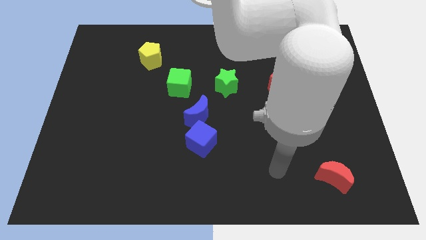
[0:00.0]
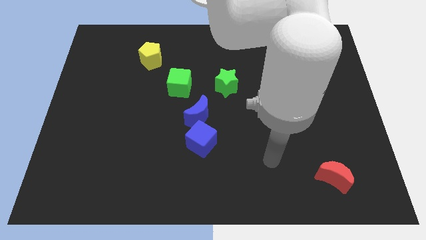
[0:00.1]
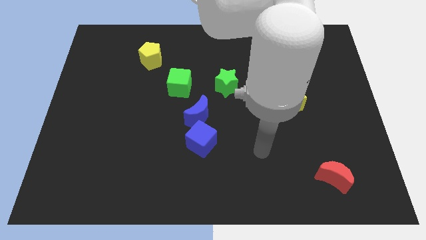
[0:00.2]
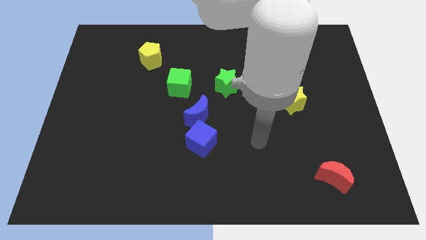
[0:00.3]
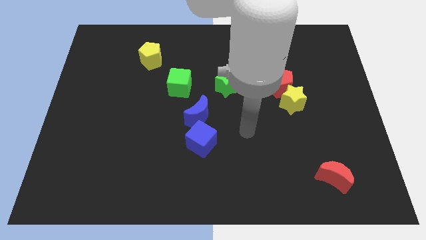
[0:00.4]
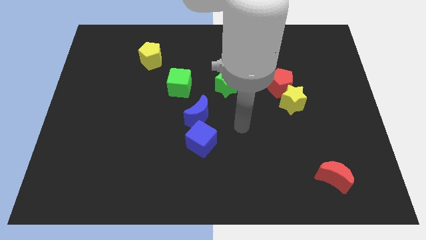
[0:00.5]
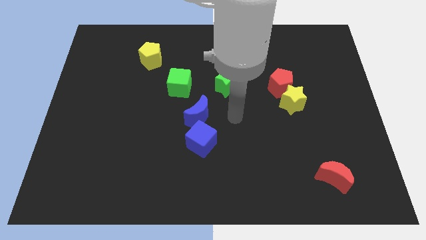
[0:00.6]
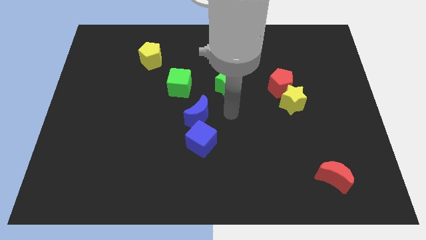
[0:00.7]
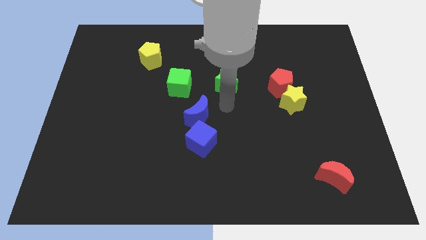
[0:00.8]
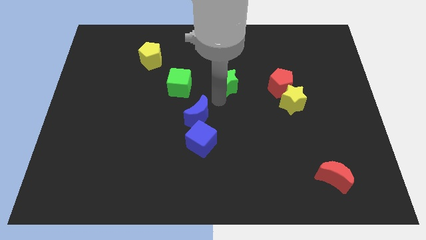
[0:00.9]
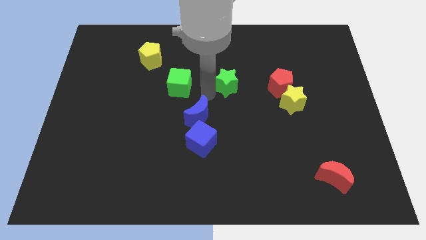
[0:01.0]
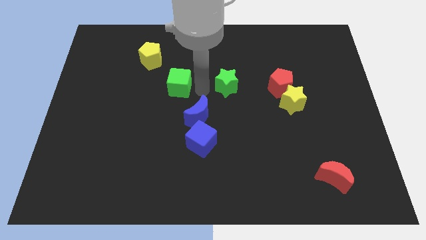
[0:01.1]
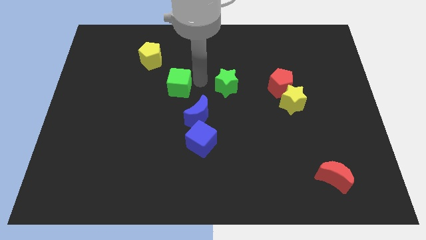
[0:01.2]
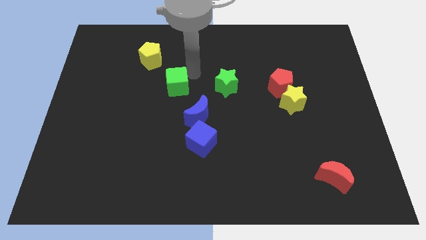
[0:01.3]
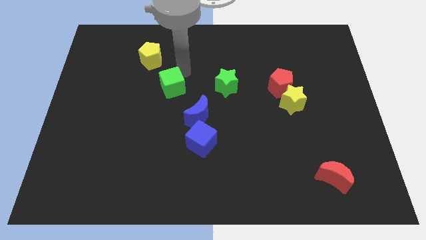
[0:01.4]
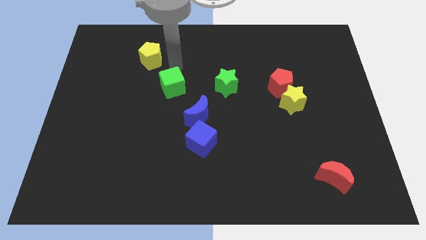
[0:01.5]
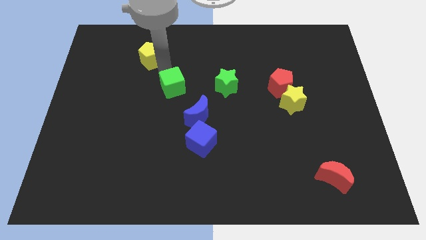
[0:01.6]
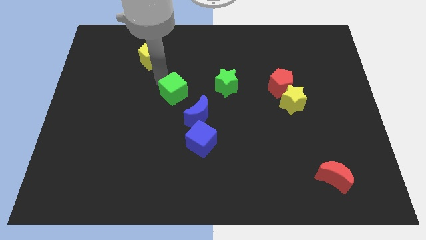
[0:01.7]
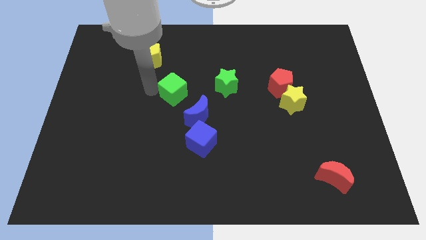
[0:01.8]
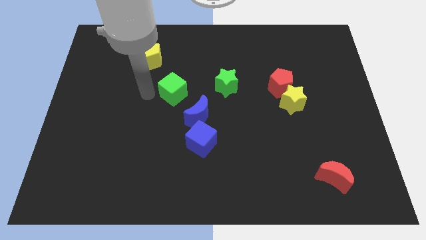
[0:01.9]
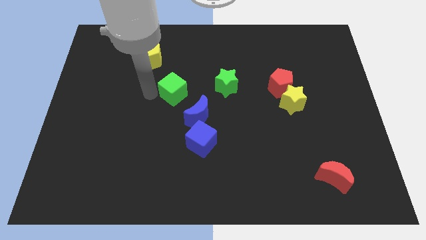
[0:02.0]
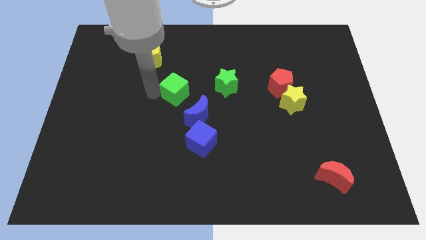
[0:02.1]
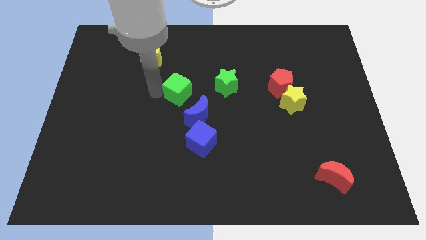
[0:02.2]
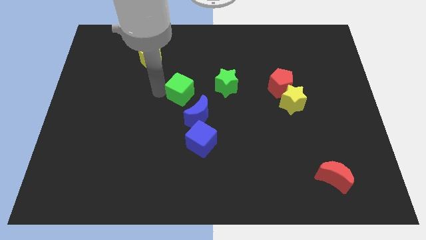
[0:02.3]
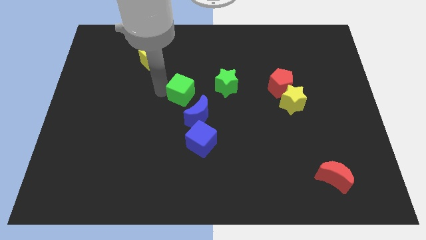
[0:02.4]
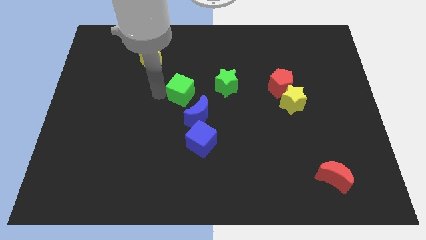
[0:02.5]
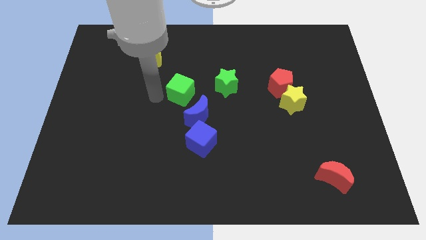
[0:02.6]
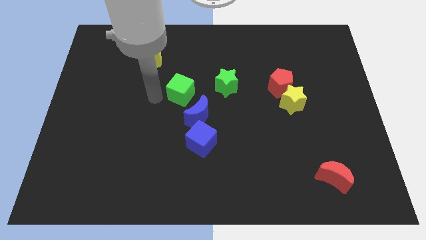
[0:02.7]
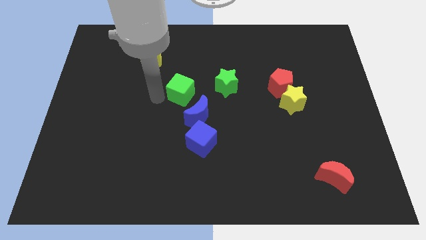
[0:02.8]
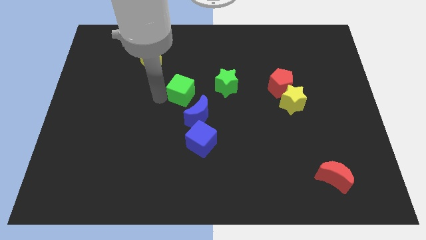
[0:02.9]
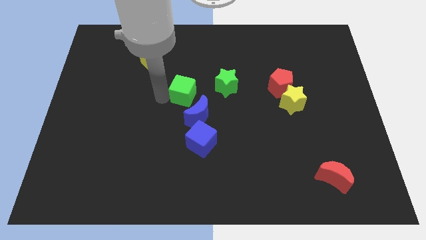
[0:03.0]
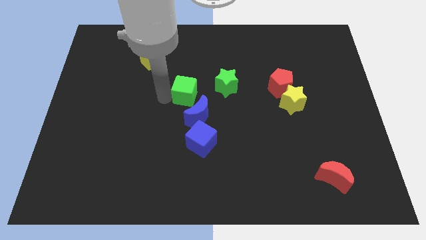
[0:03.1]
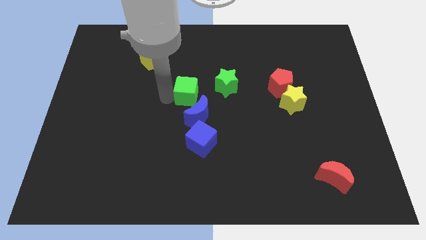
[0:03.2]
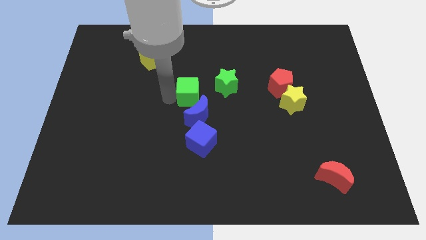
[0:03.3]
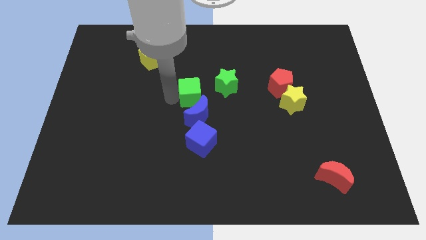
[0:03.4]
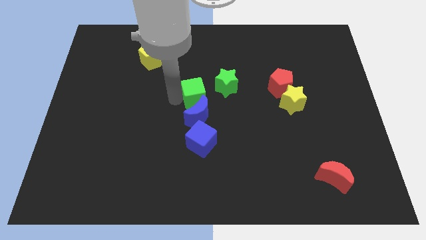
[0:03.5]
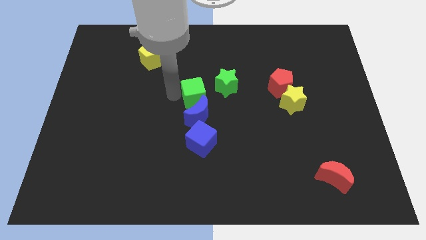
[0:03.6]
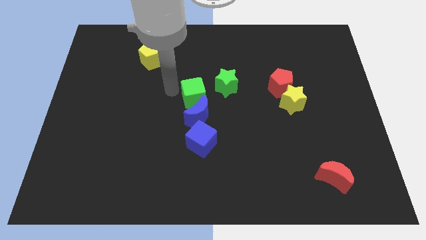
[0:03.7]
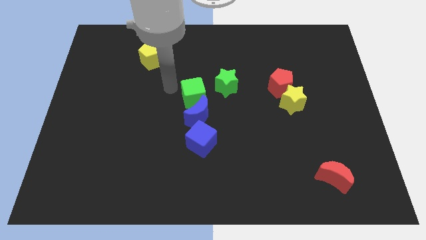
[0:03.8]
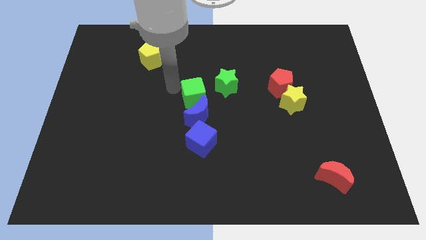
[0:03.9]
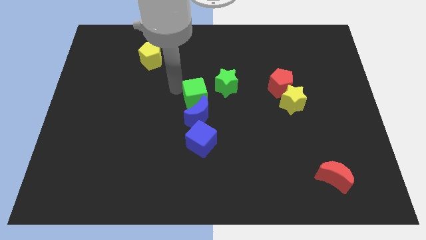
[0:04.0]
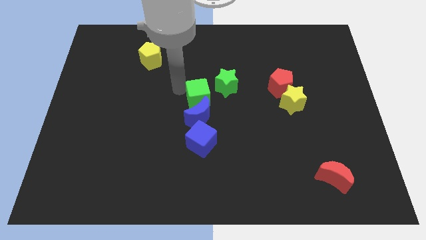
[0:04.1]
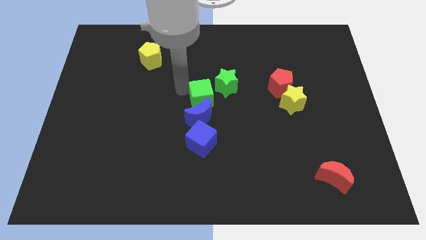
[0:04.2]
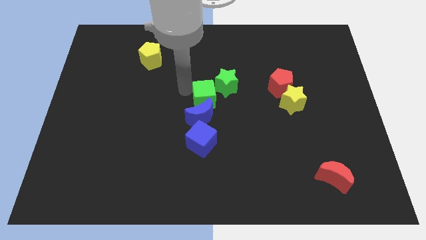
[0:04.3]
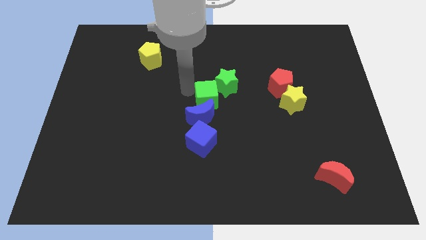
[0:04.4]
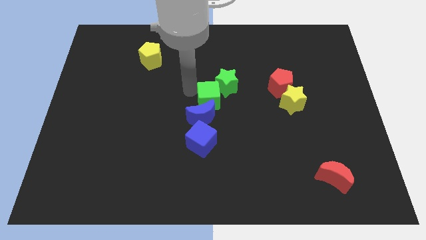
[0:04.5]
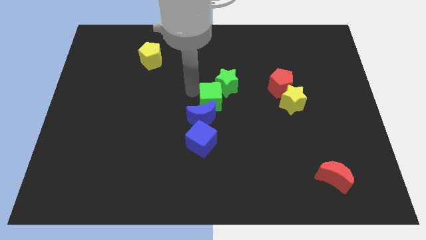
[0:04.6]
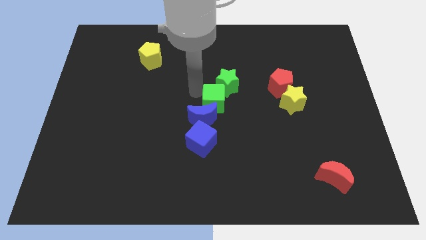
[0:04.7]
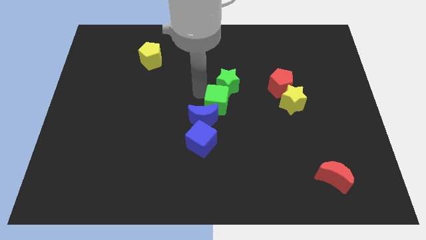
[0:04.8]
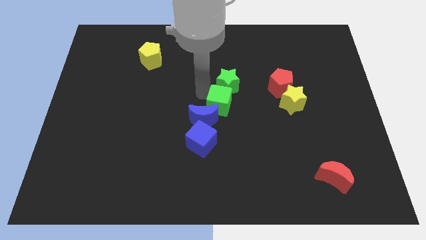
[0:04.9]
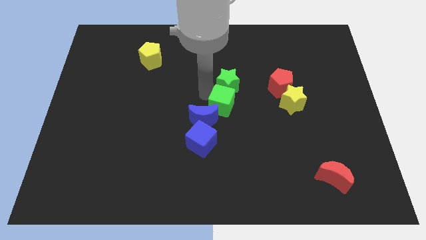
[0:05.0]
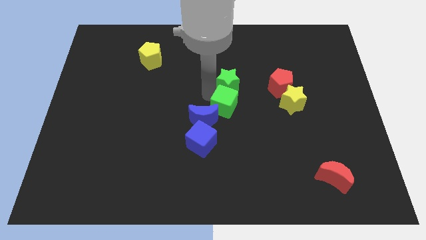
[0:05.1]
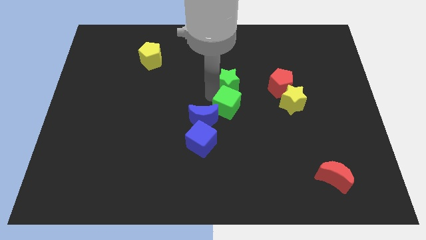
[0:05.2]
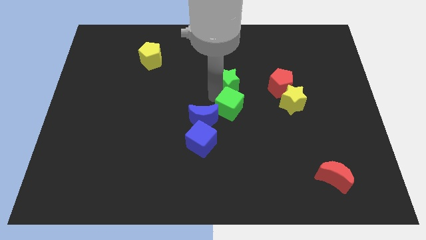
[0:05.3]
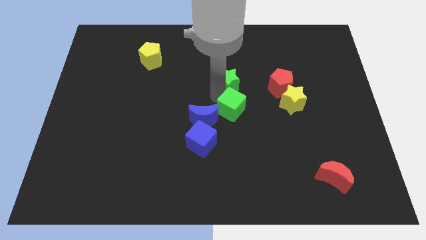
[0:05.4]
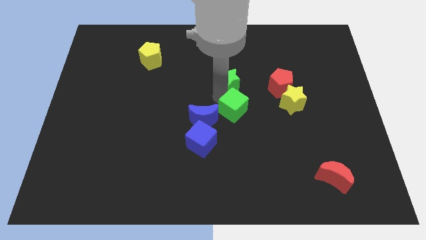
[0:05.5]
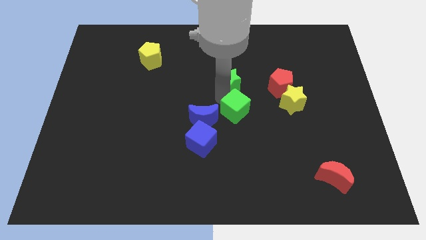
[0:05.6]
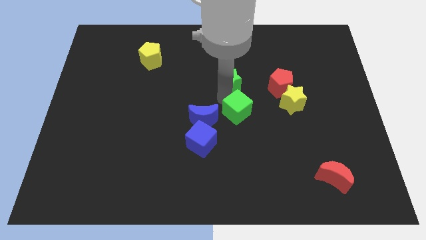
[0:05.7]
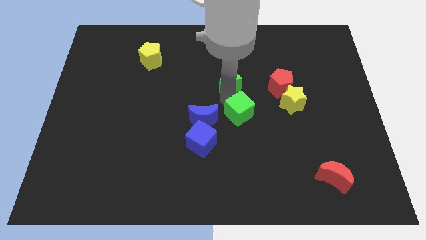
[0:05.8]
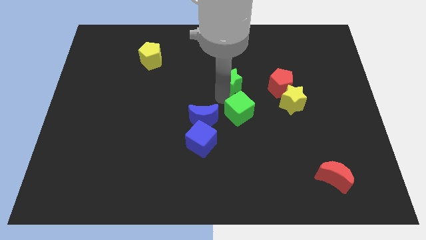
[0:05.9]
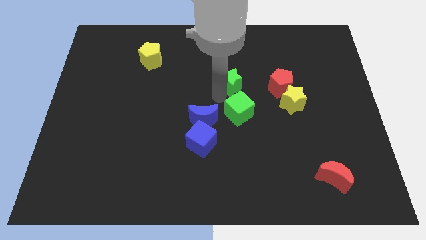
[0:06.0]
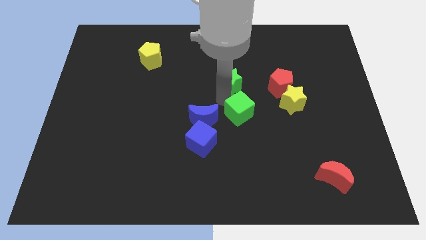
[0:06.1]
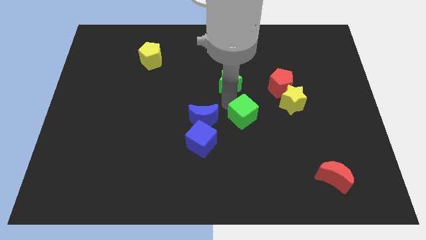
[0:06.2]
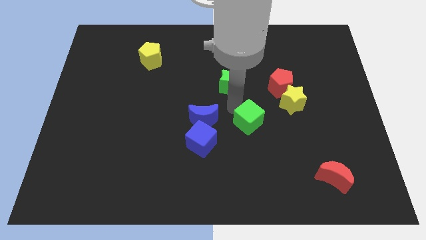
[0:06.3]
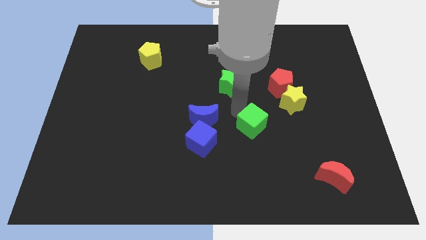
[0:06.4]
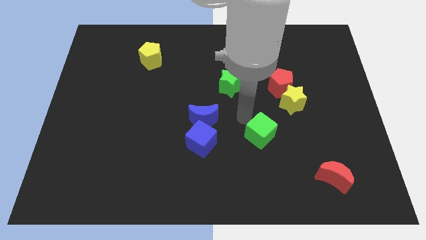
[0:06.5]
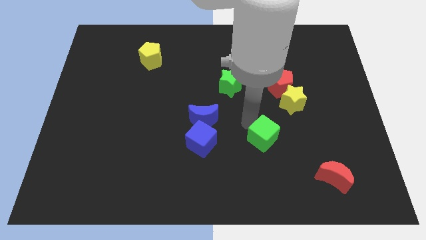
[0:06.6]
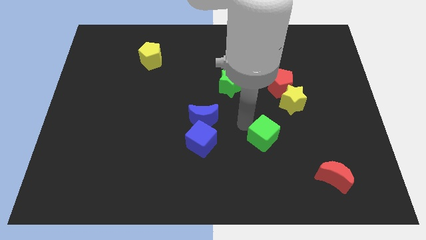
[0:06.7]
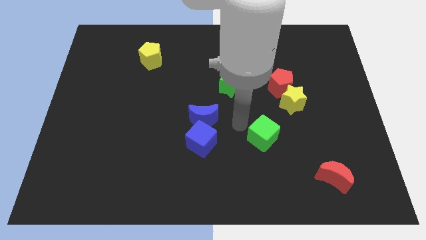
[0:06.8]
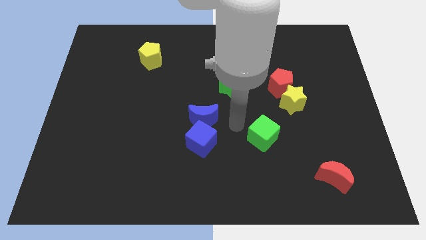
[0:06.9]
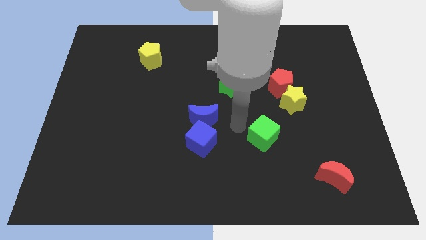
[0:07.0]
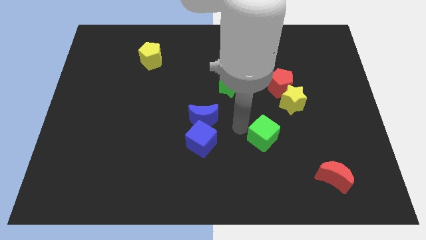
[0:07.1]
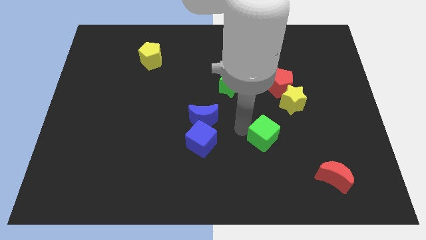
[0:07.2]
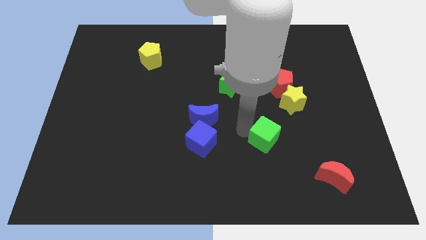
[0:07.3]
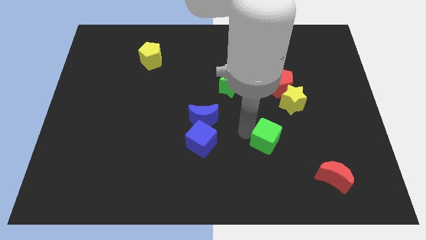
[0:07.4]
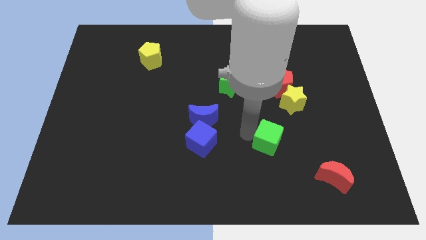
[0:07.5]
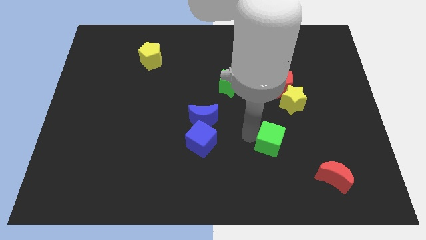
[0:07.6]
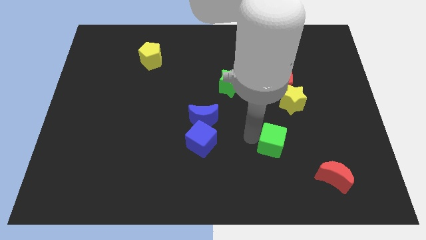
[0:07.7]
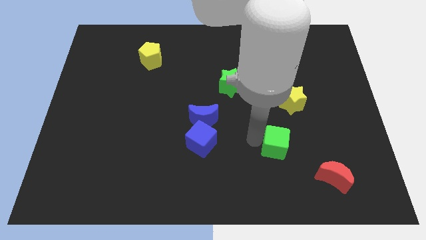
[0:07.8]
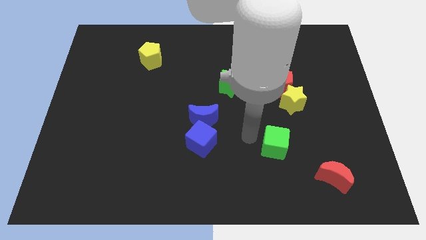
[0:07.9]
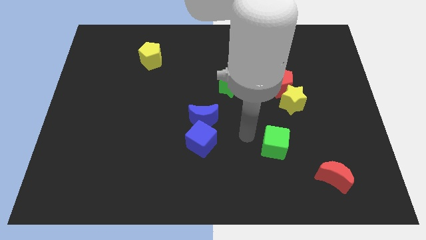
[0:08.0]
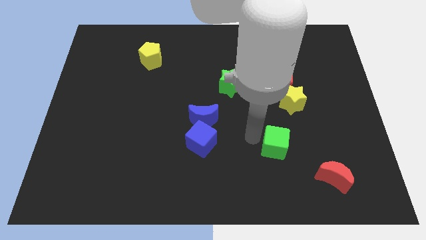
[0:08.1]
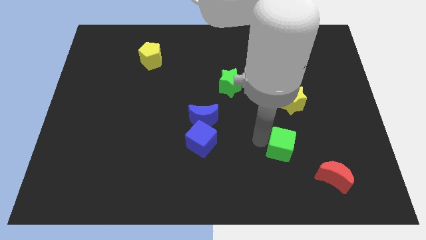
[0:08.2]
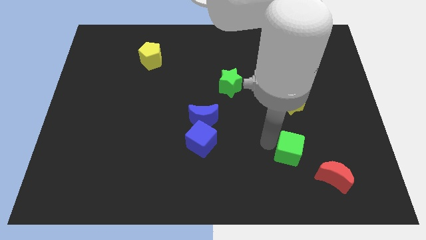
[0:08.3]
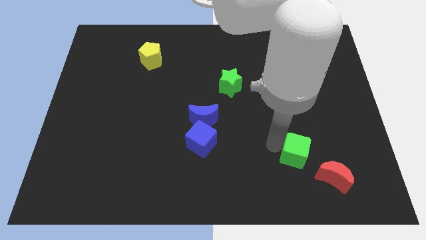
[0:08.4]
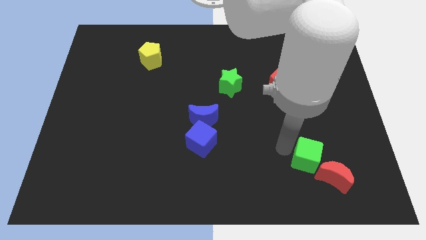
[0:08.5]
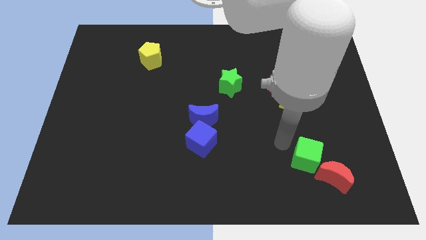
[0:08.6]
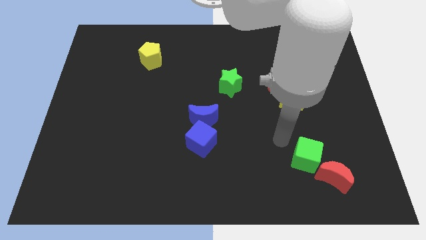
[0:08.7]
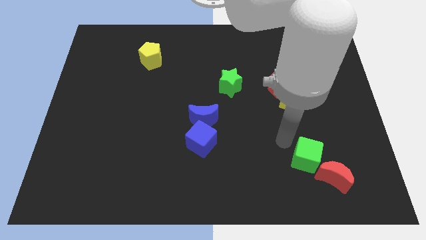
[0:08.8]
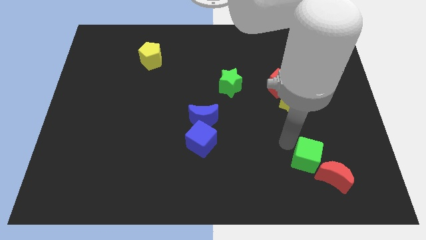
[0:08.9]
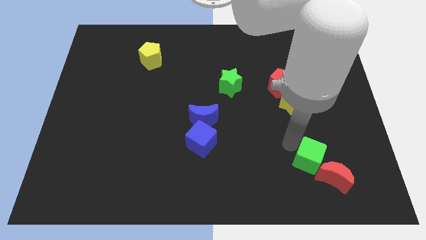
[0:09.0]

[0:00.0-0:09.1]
put the green cube next to the red moon
